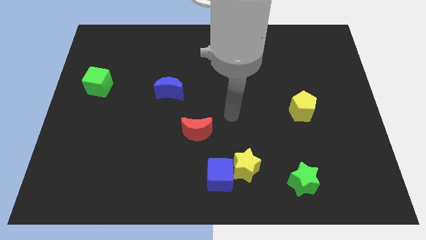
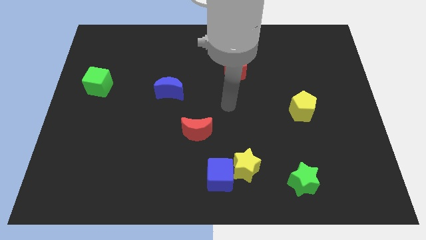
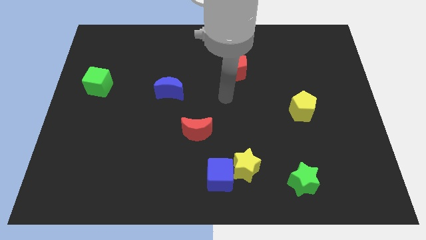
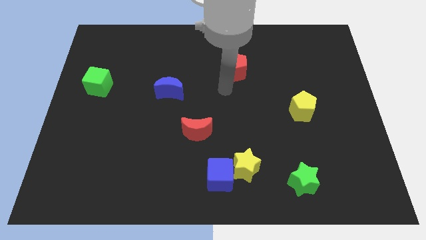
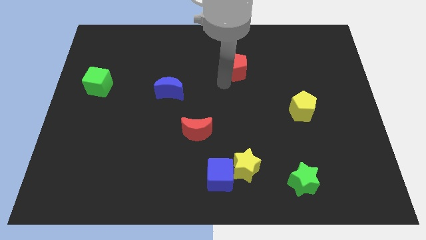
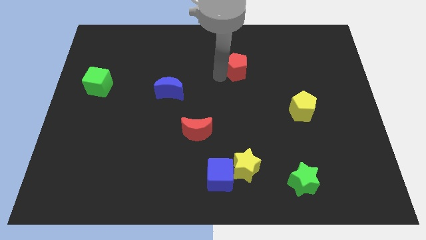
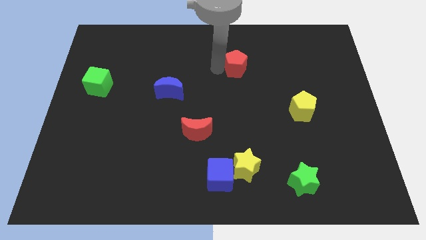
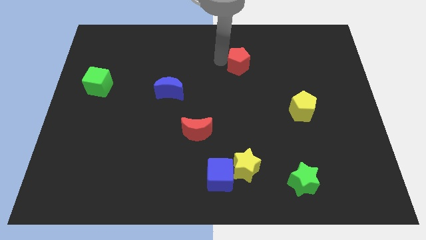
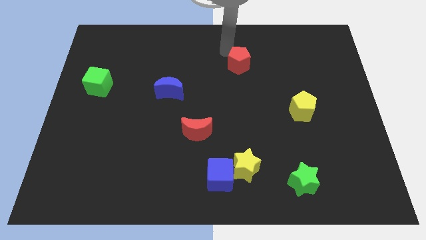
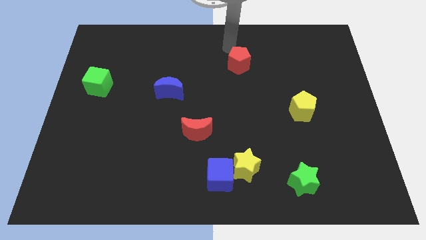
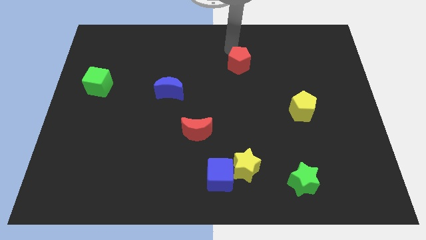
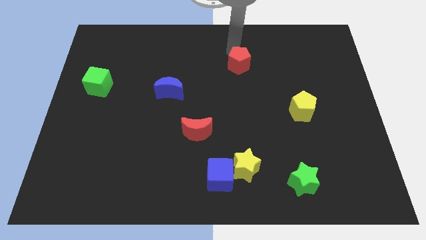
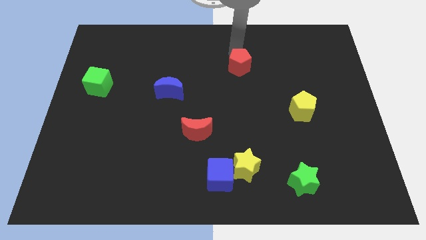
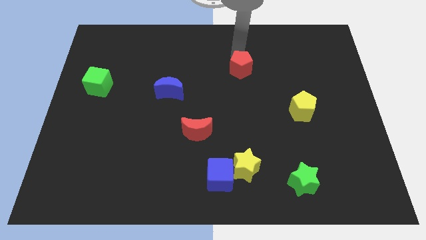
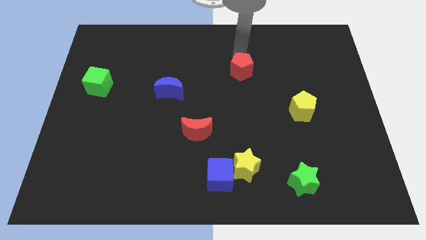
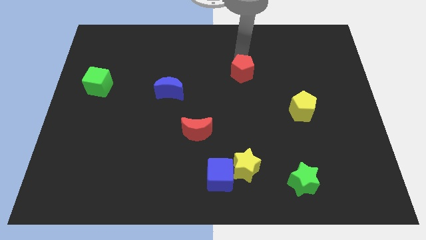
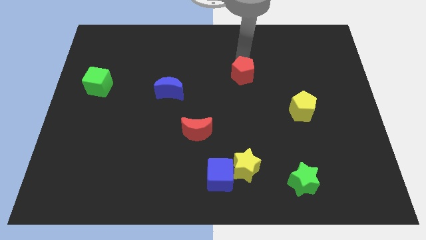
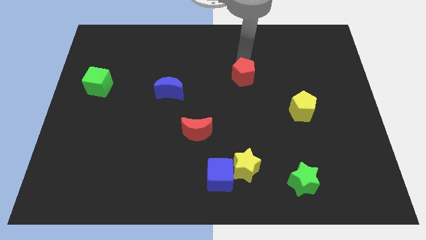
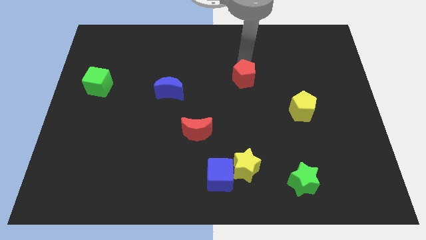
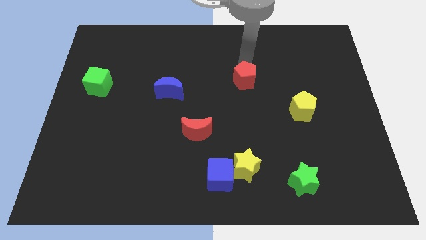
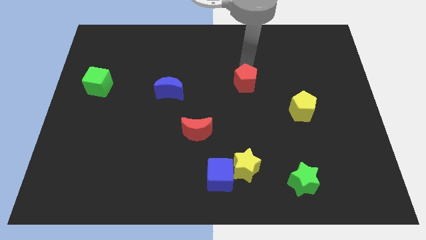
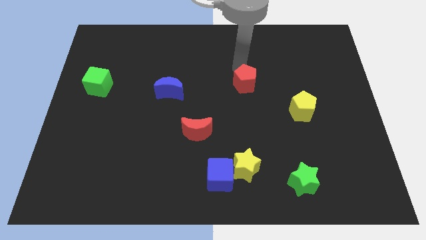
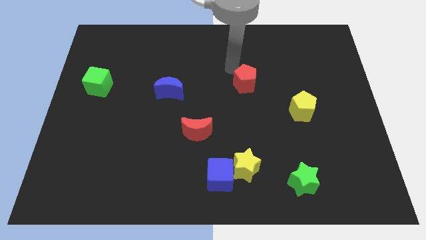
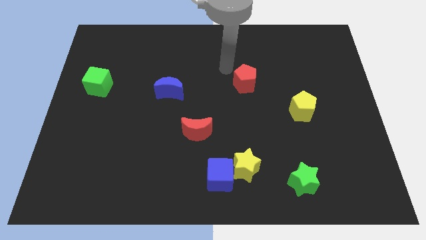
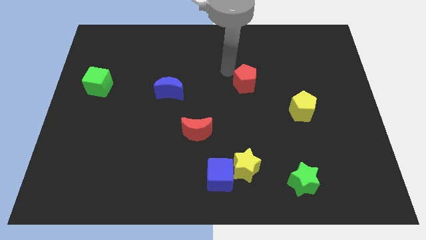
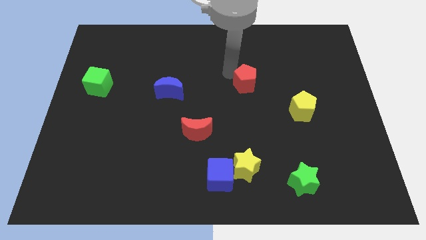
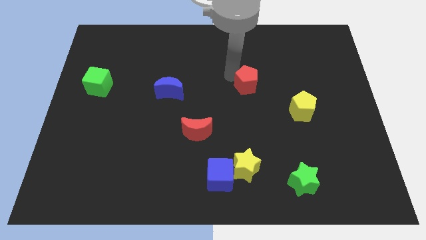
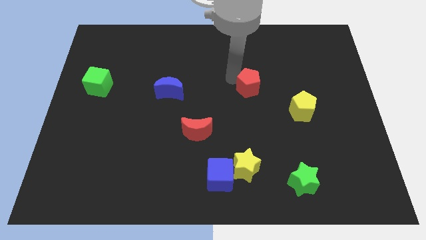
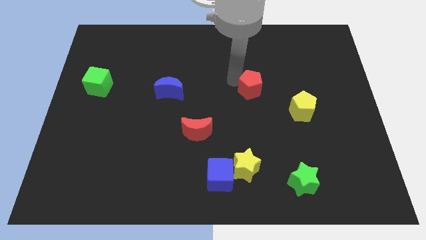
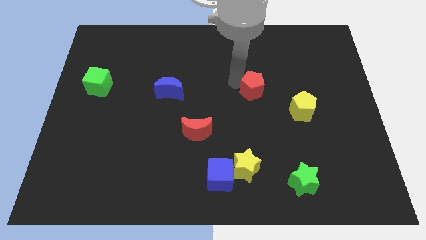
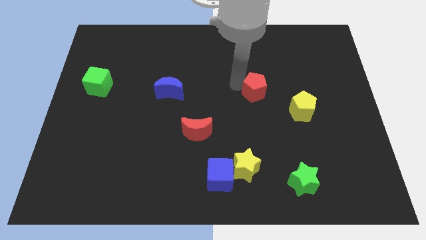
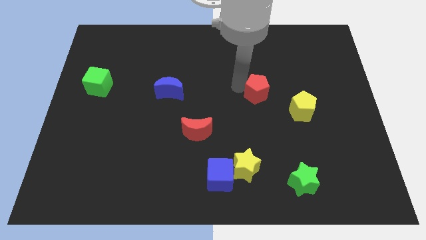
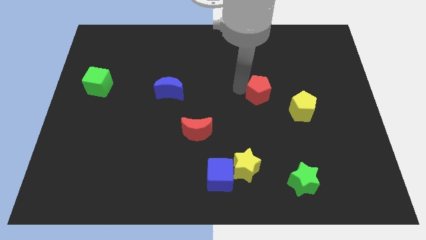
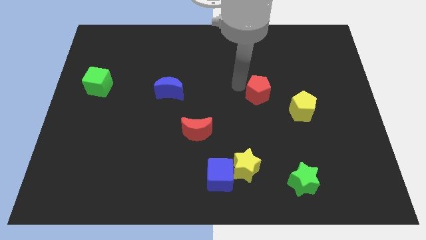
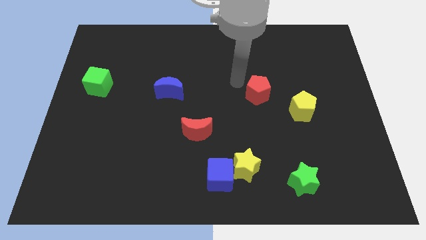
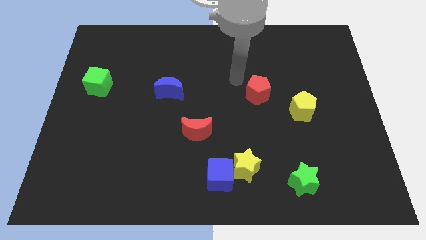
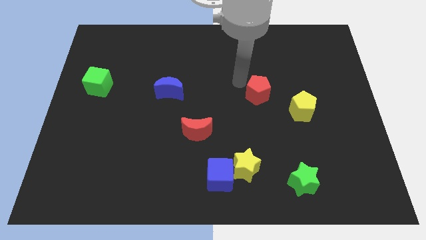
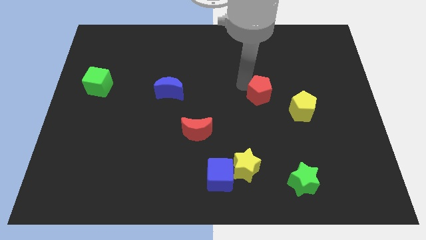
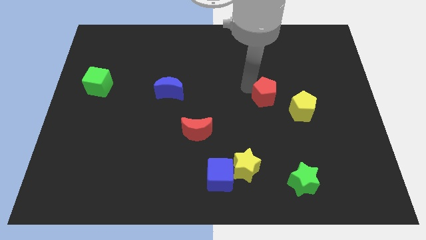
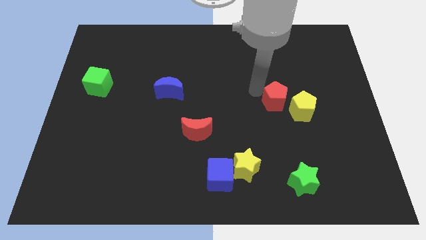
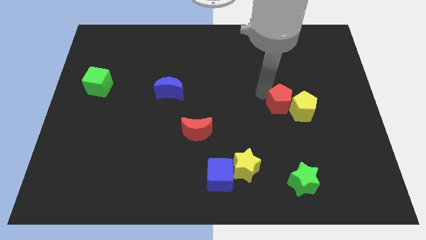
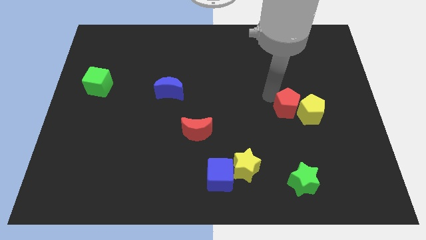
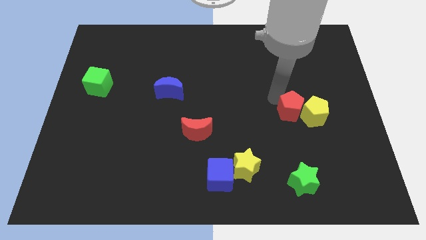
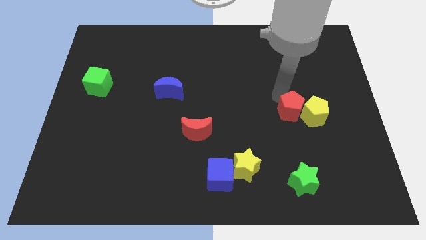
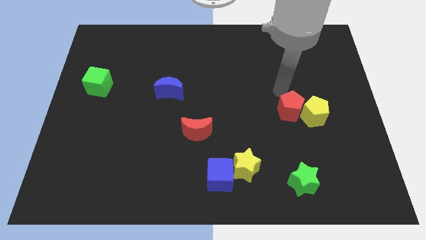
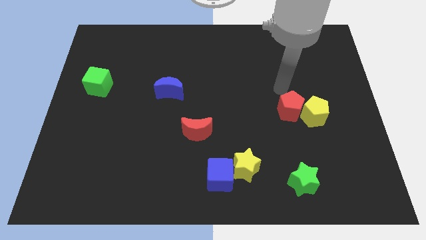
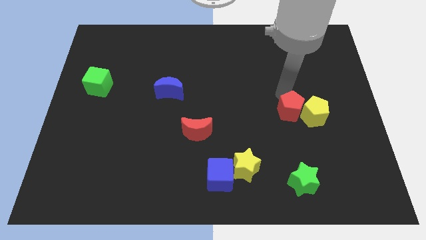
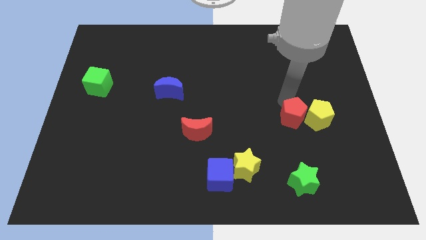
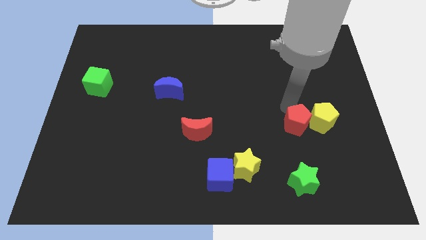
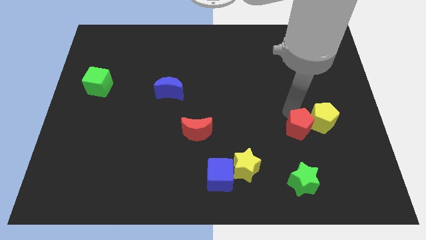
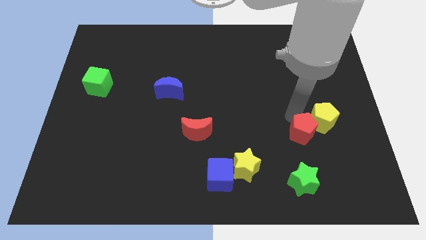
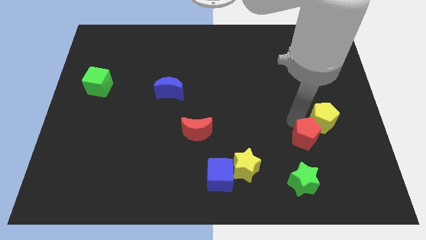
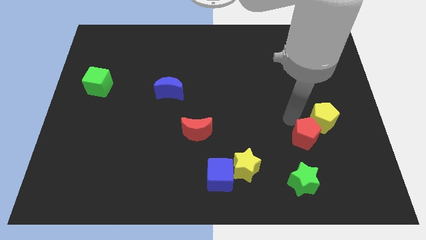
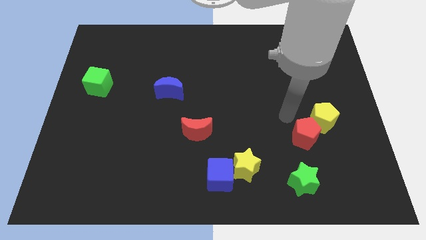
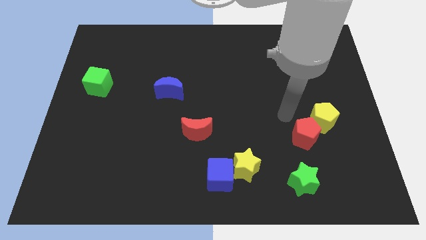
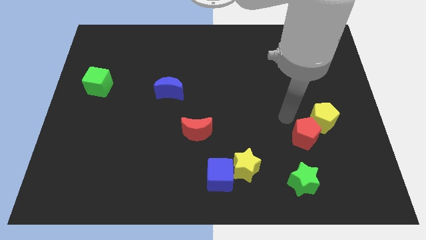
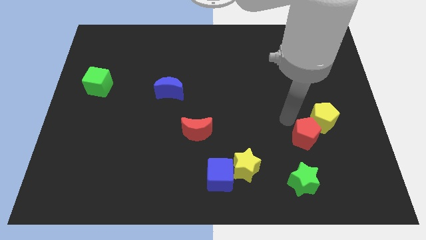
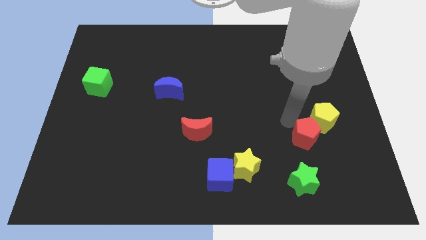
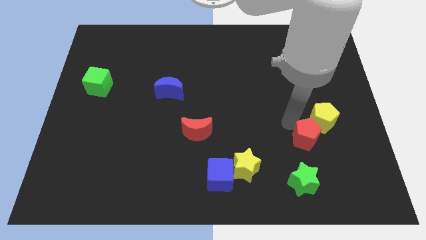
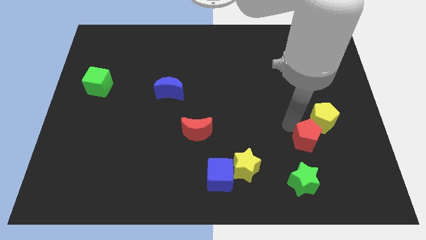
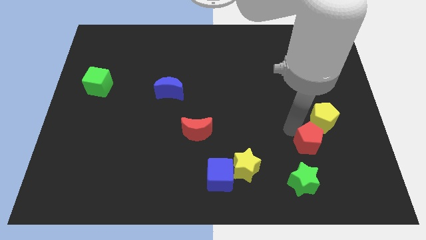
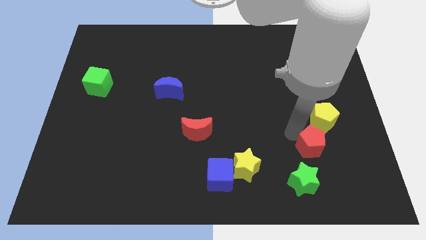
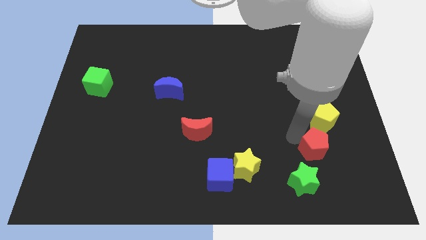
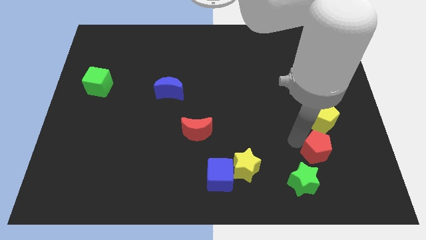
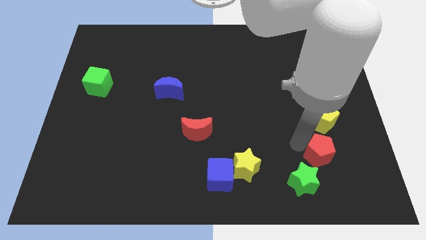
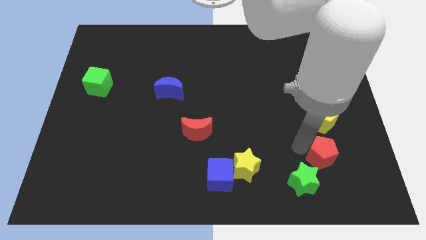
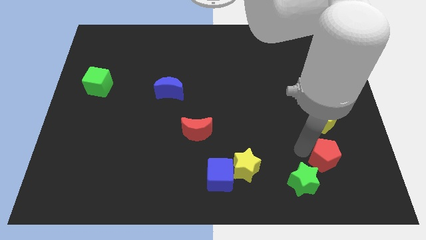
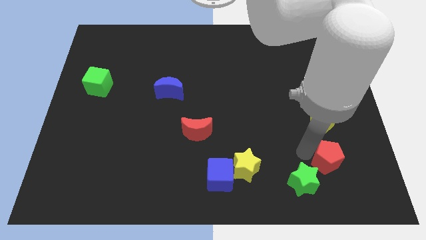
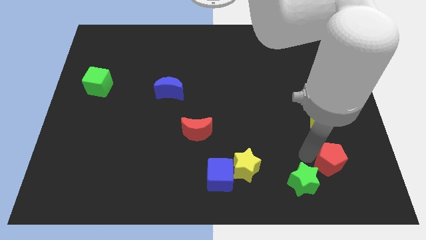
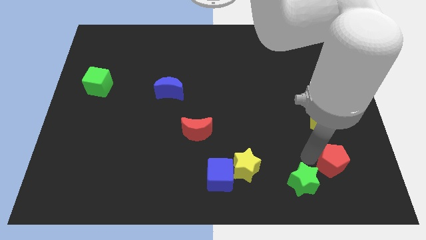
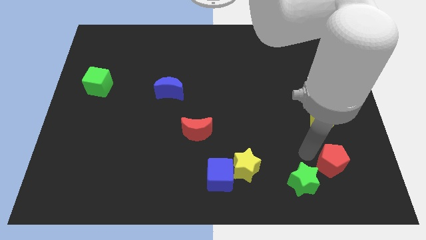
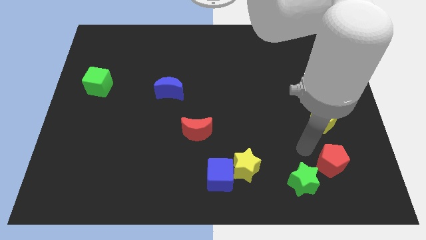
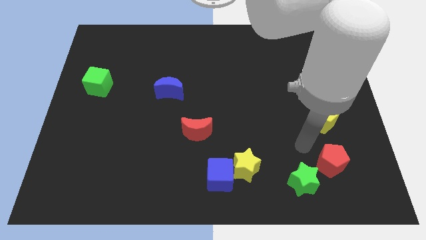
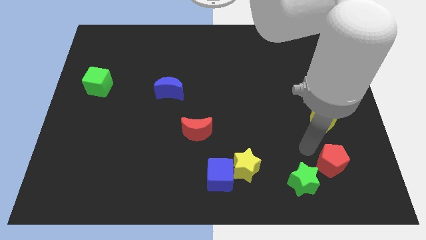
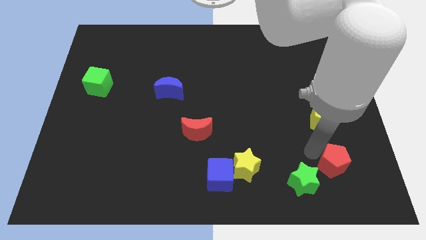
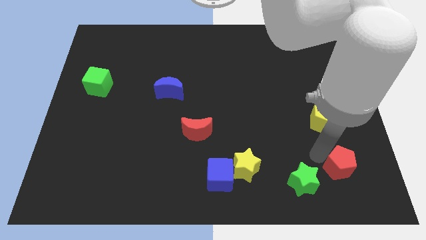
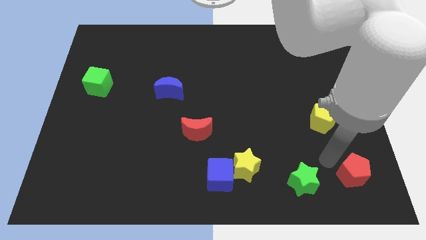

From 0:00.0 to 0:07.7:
move the red pentagon to the lower right corner
